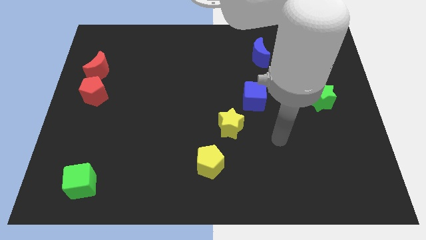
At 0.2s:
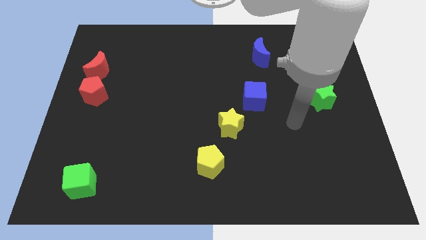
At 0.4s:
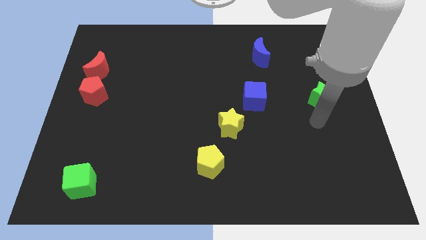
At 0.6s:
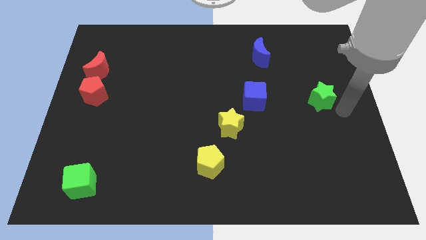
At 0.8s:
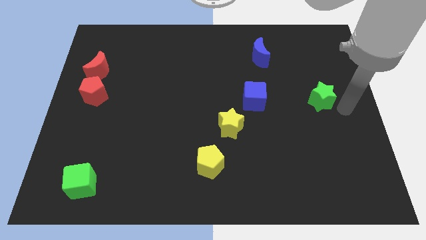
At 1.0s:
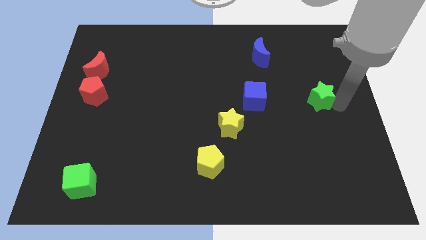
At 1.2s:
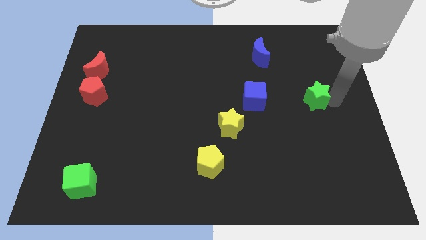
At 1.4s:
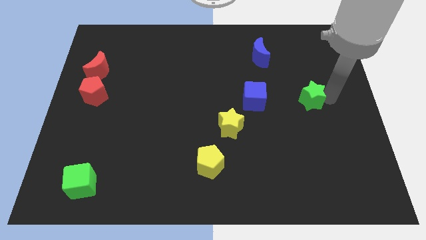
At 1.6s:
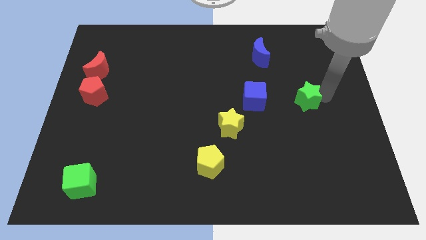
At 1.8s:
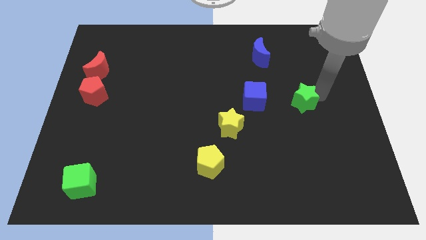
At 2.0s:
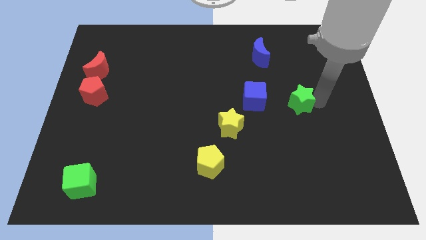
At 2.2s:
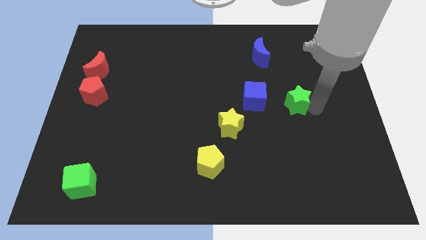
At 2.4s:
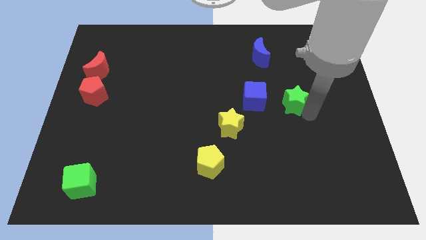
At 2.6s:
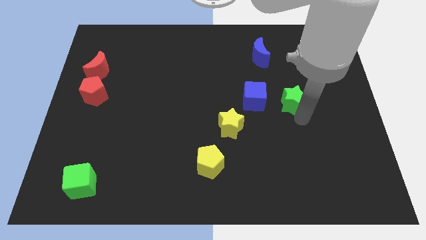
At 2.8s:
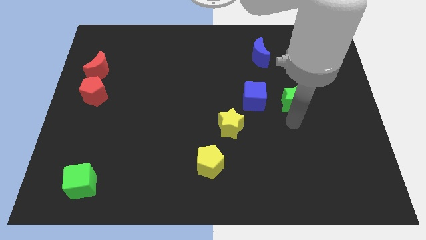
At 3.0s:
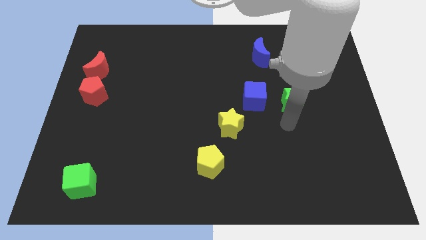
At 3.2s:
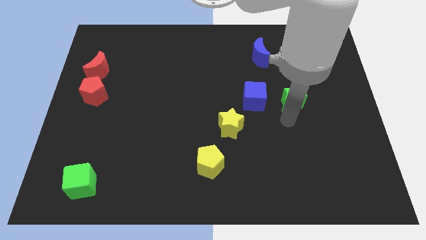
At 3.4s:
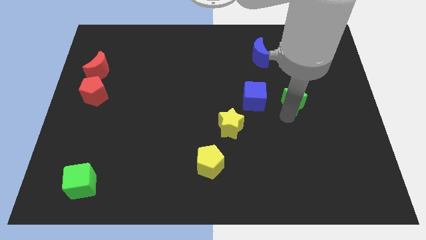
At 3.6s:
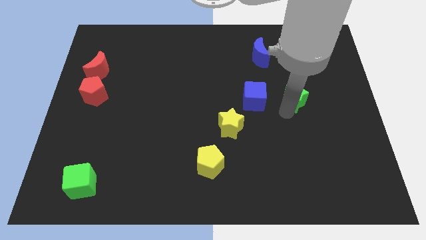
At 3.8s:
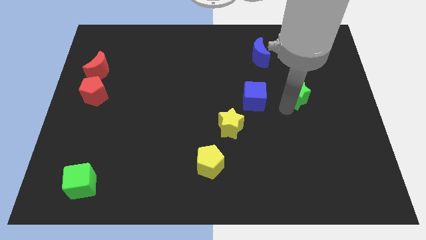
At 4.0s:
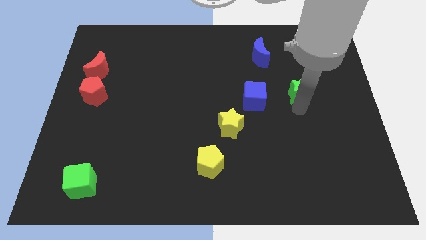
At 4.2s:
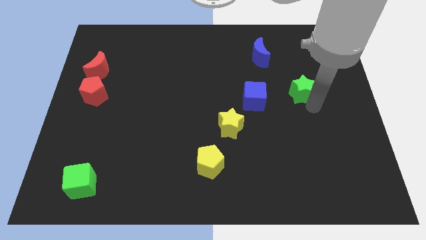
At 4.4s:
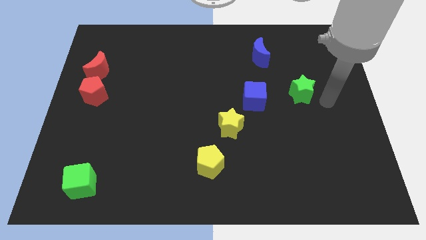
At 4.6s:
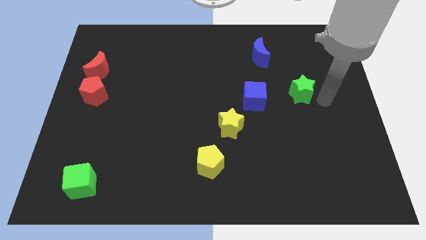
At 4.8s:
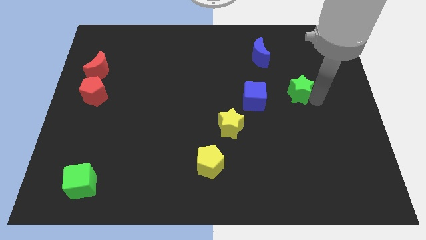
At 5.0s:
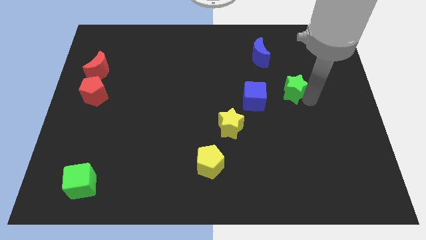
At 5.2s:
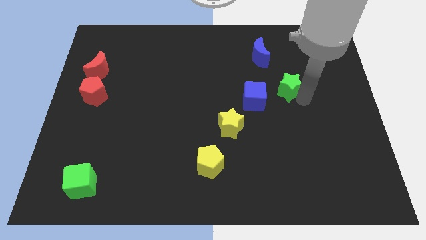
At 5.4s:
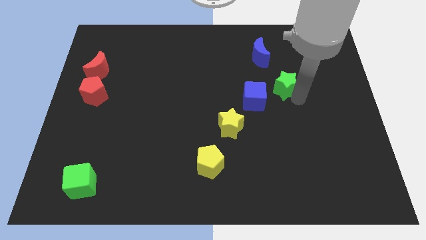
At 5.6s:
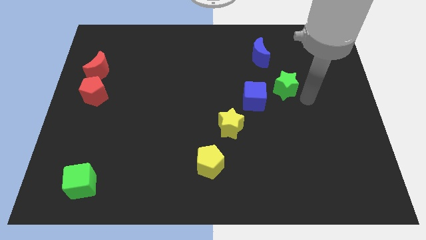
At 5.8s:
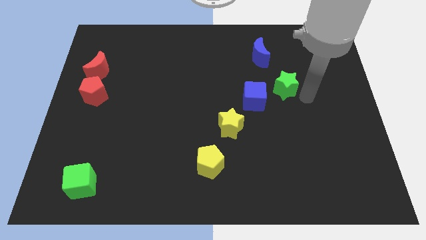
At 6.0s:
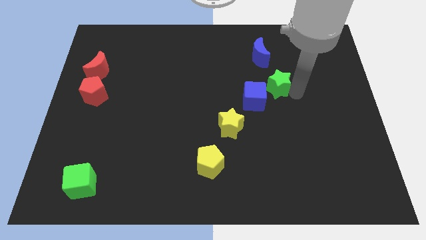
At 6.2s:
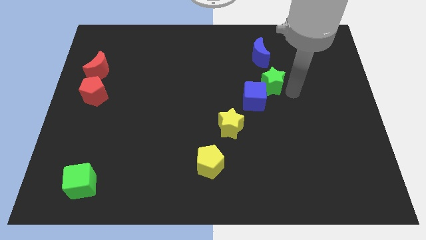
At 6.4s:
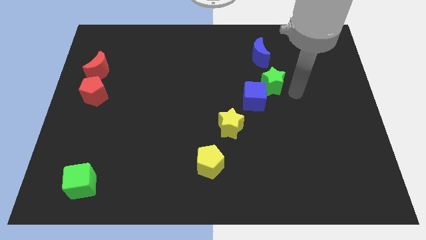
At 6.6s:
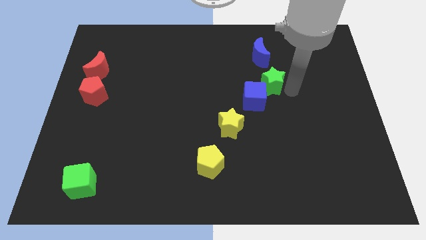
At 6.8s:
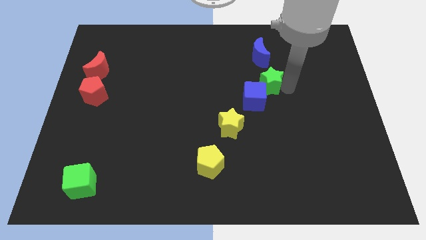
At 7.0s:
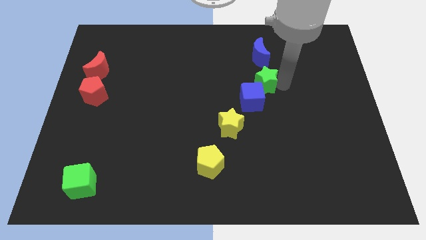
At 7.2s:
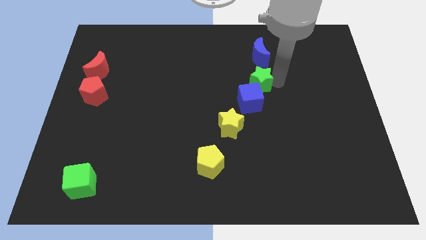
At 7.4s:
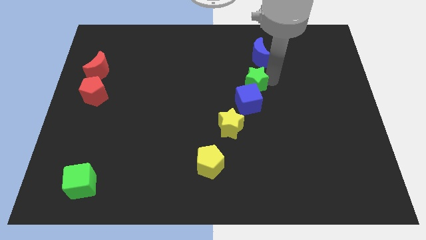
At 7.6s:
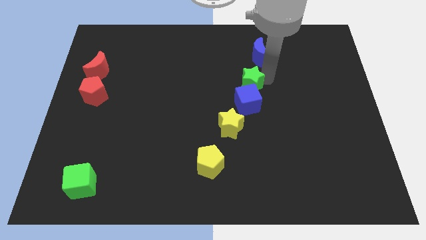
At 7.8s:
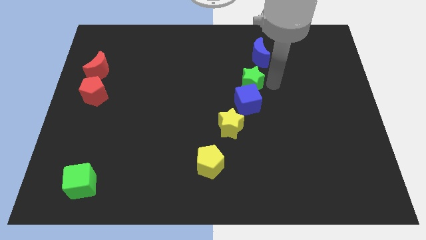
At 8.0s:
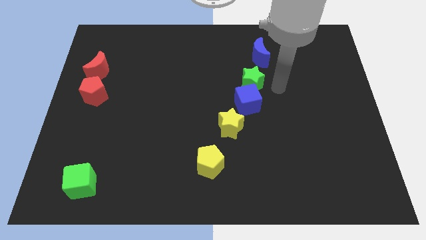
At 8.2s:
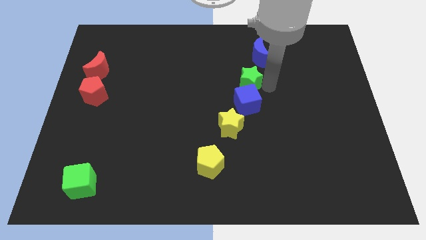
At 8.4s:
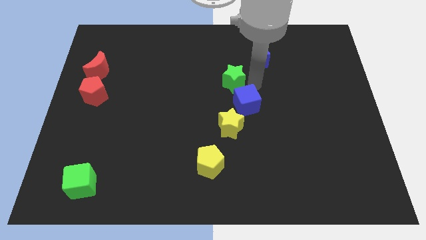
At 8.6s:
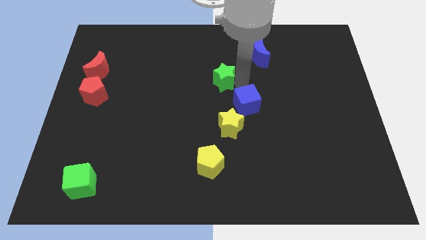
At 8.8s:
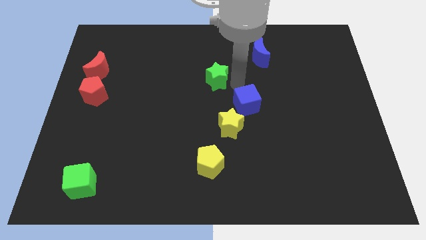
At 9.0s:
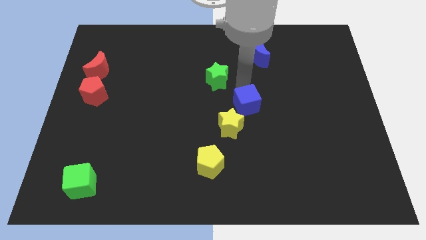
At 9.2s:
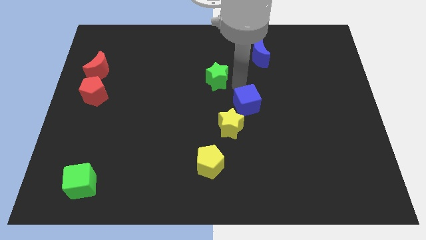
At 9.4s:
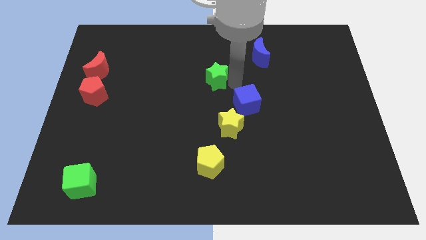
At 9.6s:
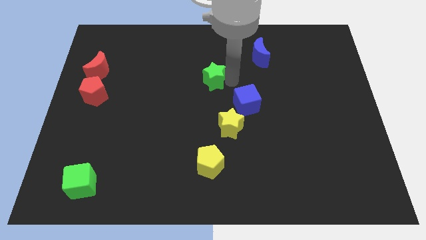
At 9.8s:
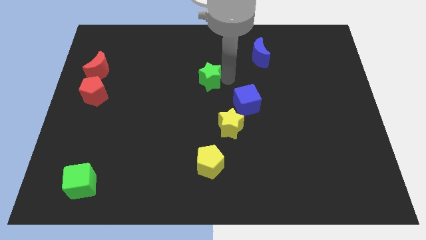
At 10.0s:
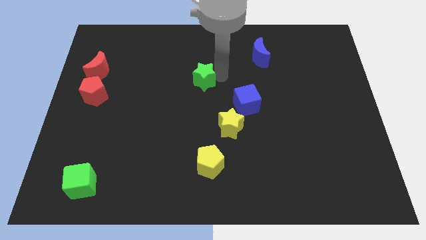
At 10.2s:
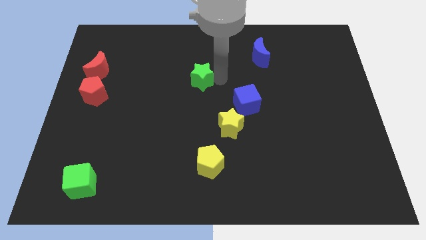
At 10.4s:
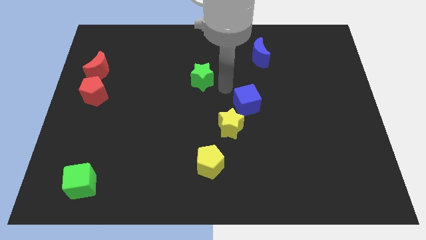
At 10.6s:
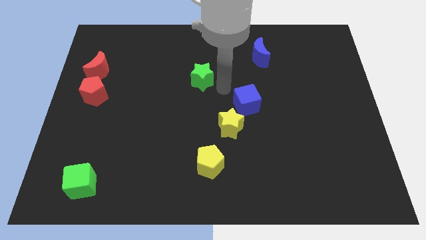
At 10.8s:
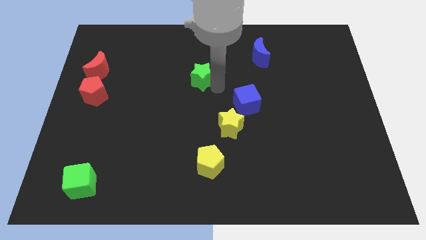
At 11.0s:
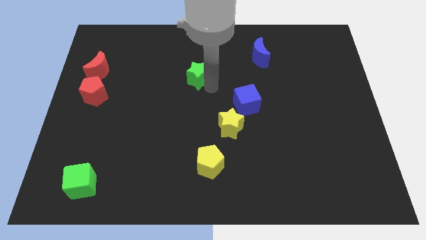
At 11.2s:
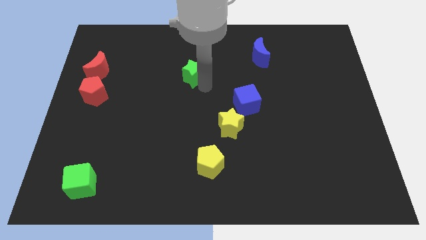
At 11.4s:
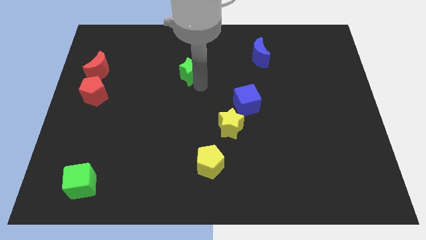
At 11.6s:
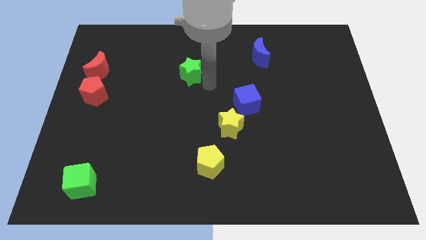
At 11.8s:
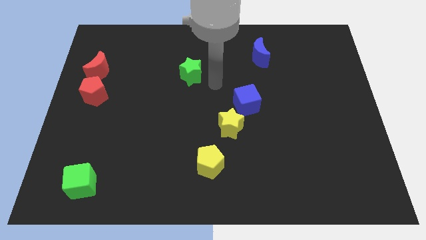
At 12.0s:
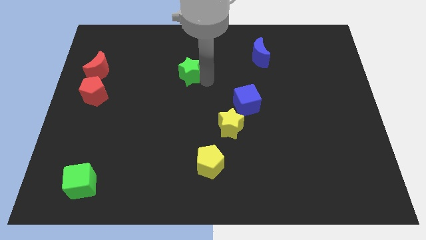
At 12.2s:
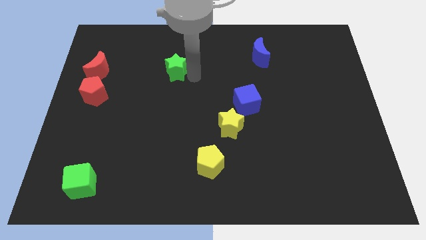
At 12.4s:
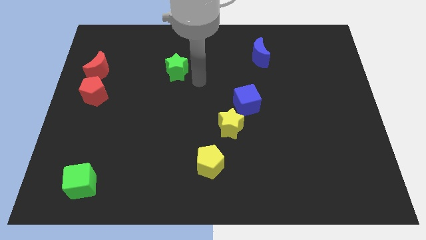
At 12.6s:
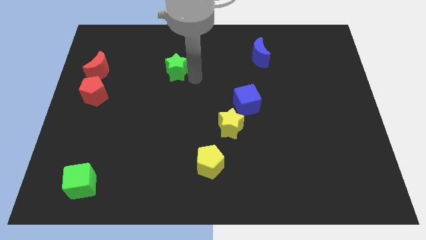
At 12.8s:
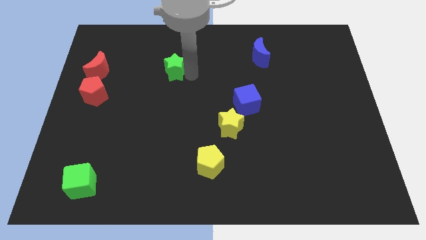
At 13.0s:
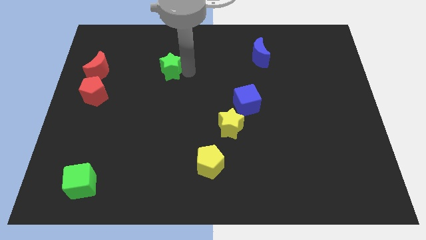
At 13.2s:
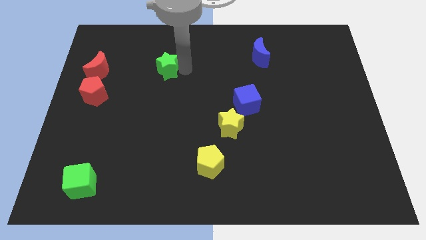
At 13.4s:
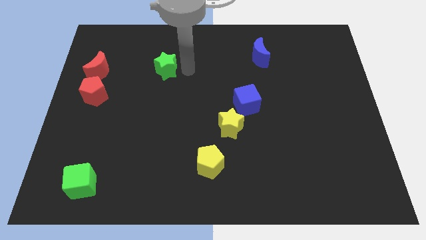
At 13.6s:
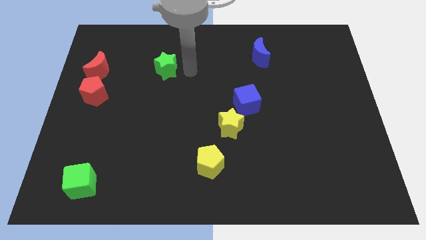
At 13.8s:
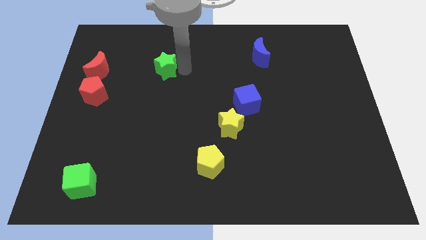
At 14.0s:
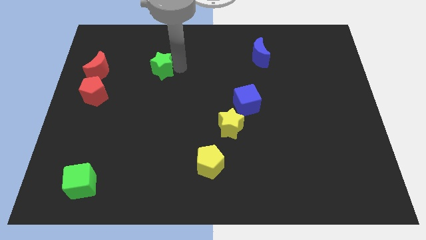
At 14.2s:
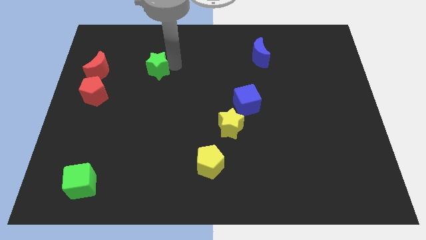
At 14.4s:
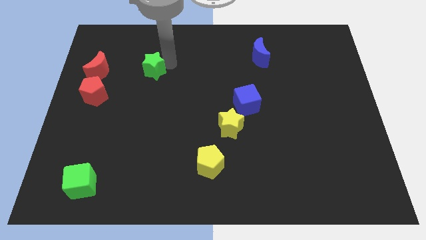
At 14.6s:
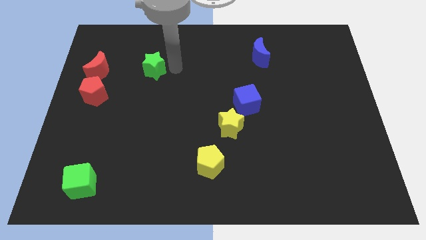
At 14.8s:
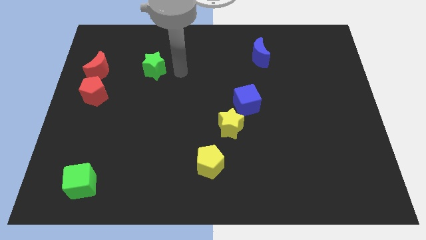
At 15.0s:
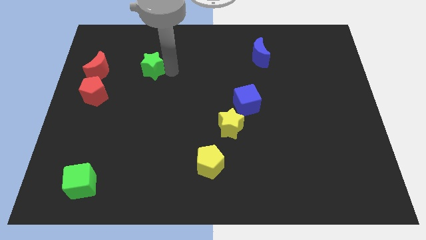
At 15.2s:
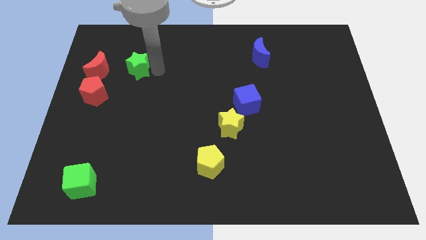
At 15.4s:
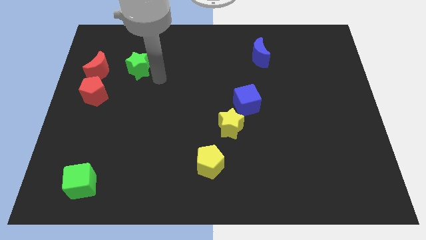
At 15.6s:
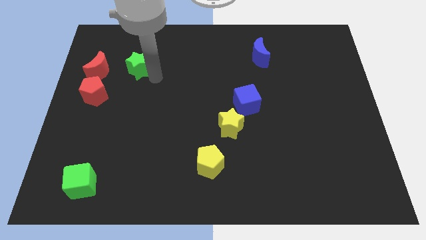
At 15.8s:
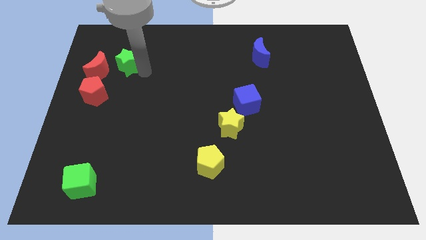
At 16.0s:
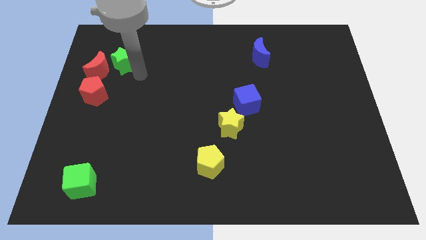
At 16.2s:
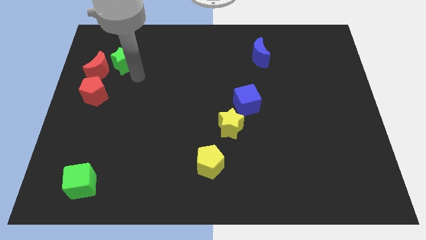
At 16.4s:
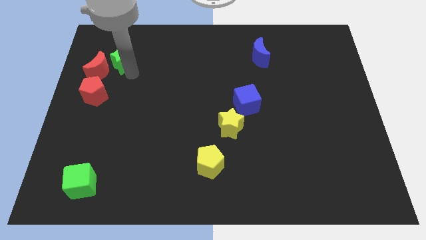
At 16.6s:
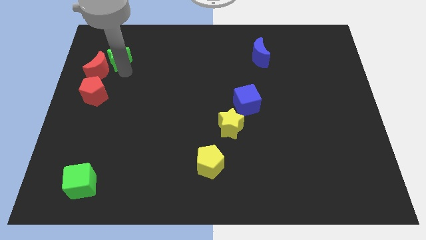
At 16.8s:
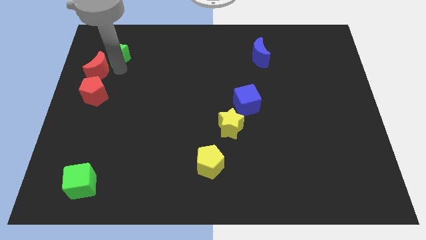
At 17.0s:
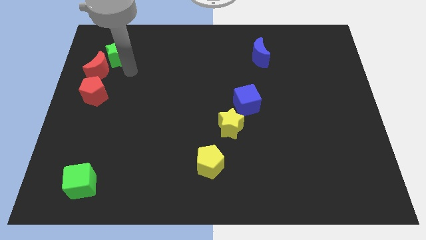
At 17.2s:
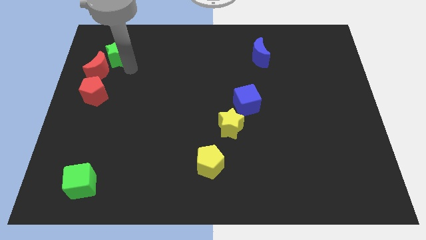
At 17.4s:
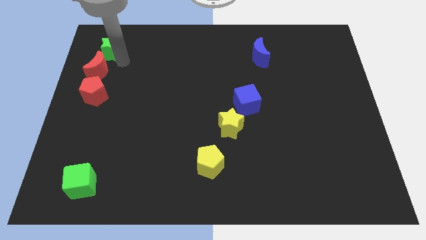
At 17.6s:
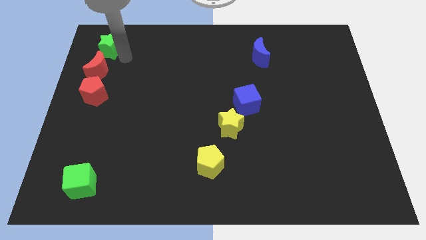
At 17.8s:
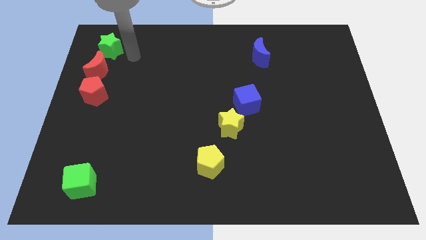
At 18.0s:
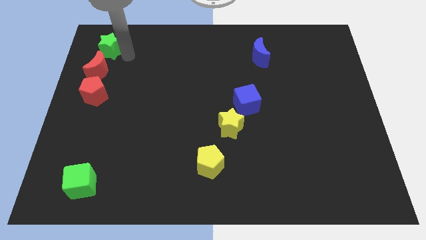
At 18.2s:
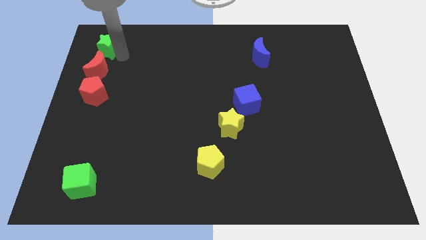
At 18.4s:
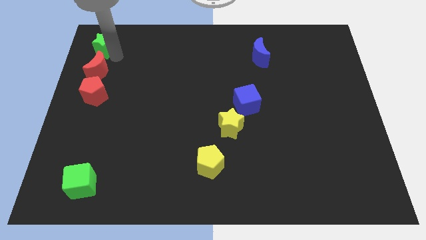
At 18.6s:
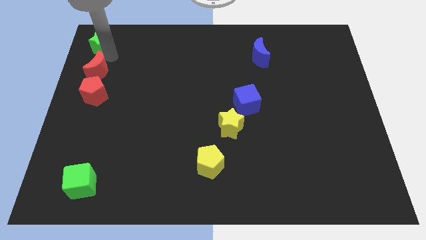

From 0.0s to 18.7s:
slide the green star to the top left of the board
